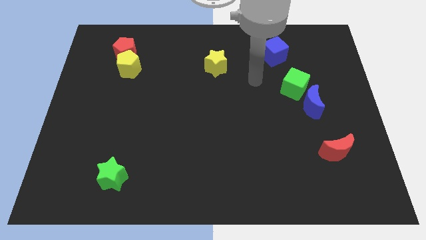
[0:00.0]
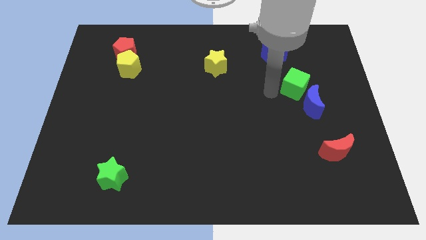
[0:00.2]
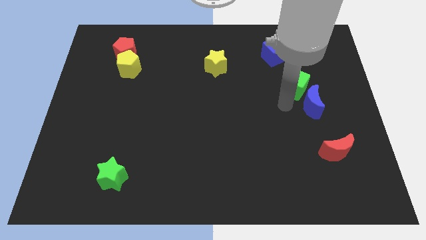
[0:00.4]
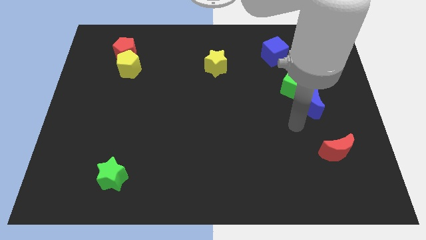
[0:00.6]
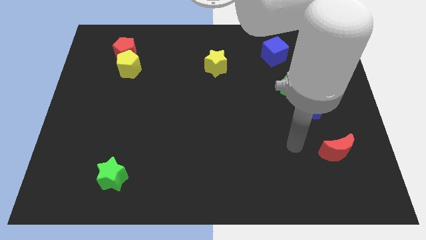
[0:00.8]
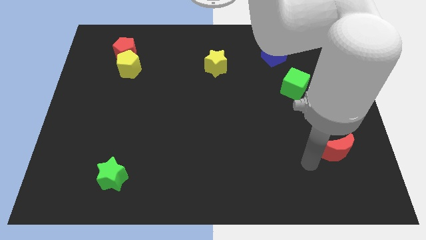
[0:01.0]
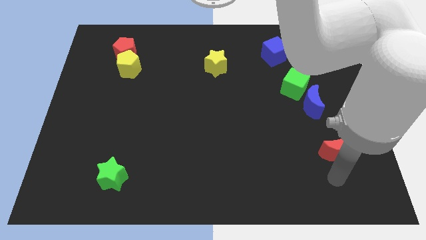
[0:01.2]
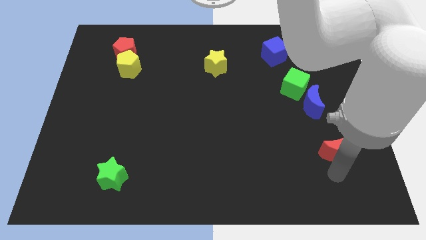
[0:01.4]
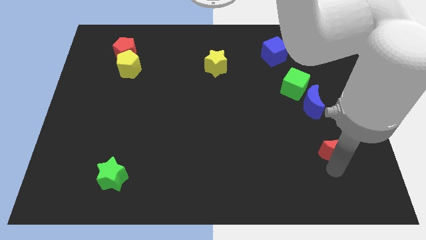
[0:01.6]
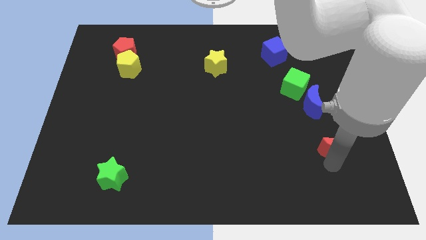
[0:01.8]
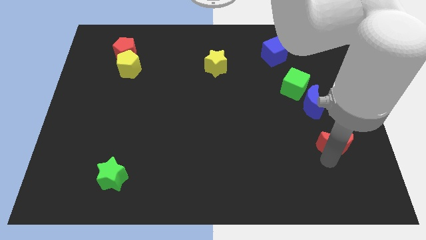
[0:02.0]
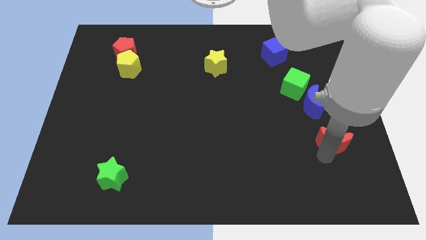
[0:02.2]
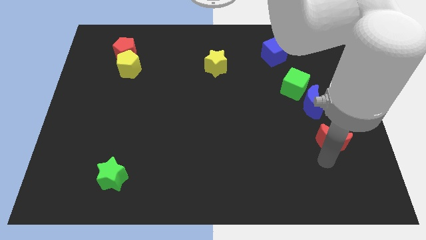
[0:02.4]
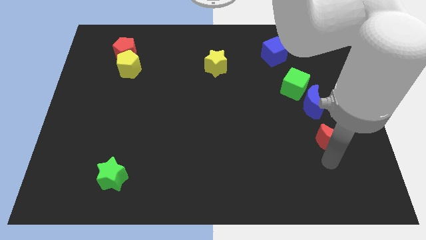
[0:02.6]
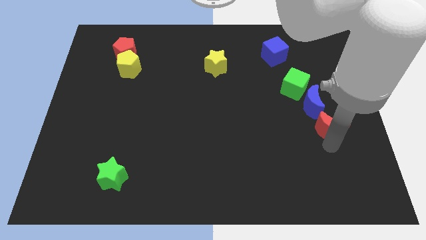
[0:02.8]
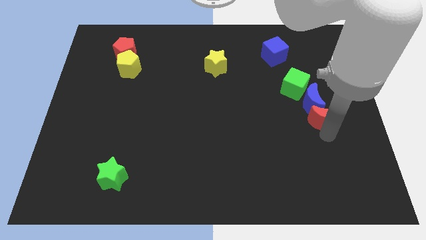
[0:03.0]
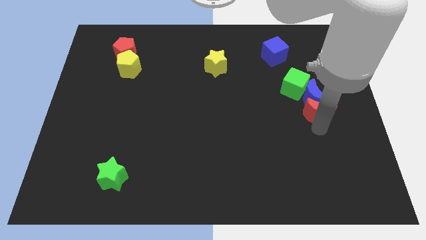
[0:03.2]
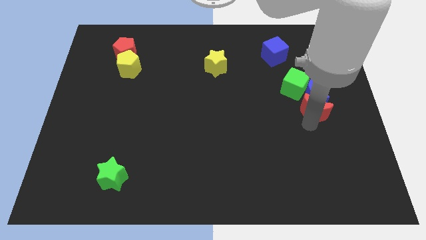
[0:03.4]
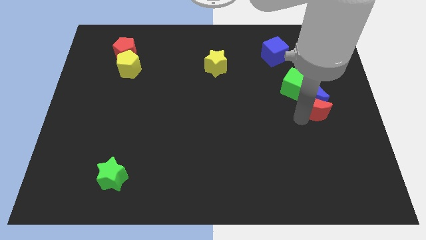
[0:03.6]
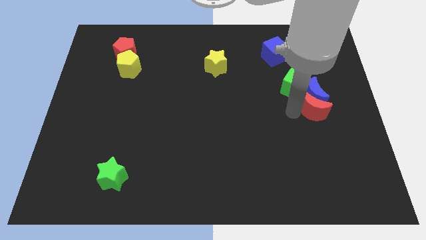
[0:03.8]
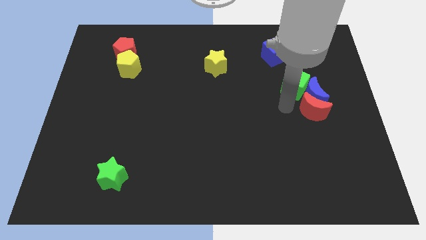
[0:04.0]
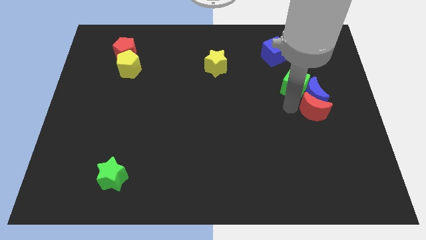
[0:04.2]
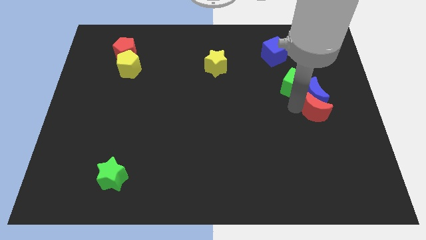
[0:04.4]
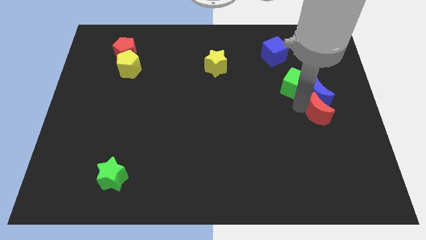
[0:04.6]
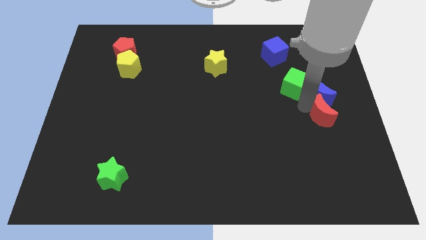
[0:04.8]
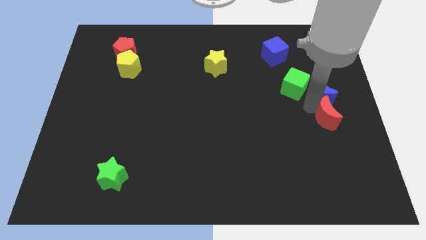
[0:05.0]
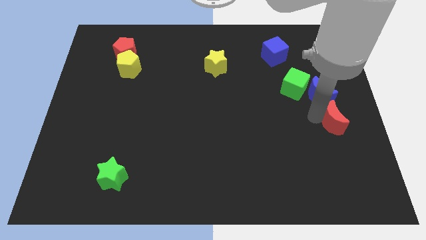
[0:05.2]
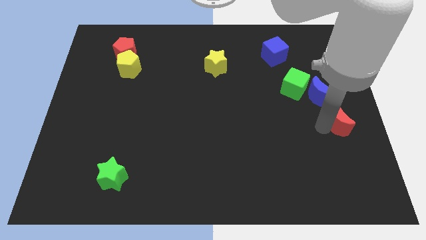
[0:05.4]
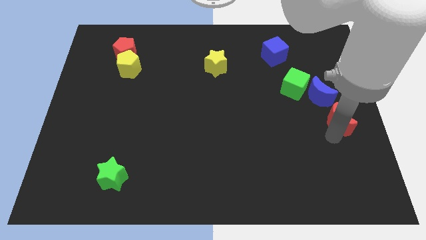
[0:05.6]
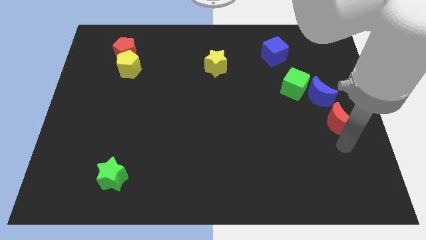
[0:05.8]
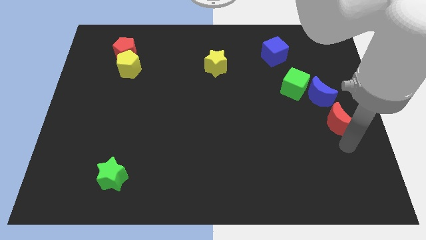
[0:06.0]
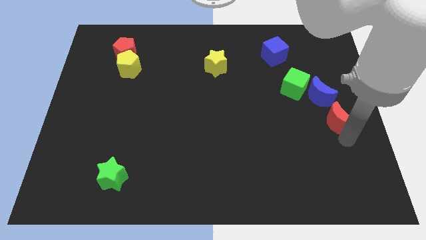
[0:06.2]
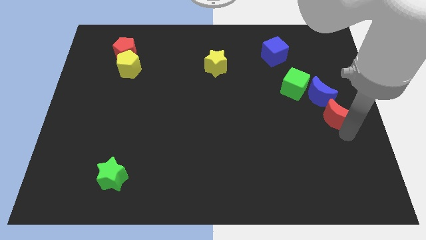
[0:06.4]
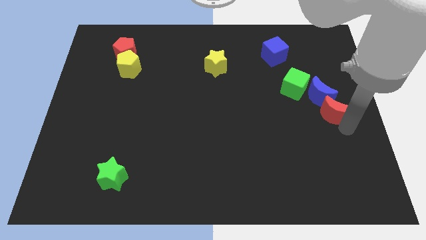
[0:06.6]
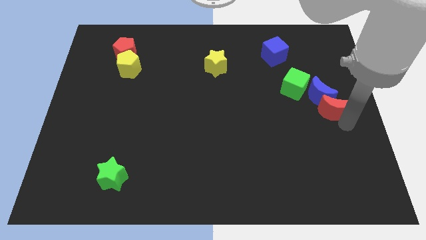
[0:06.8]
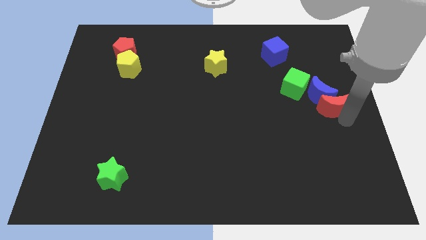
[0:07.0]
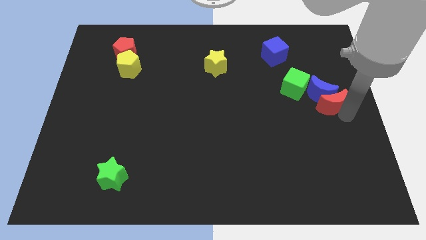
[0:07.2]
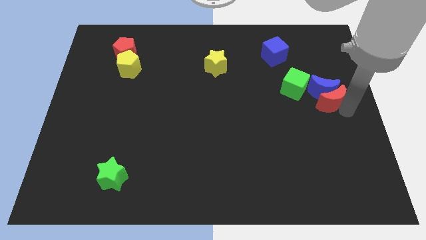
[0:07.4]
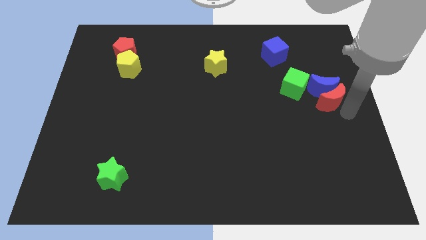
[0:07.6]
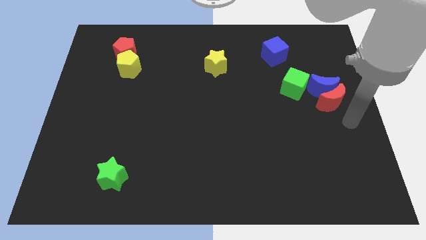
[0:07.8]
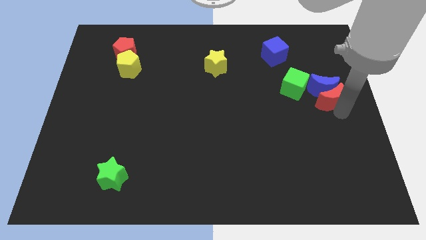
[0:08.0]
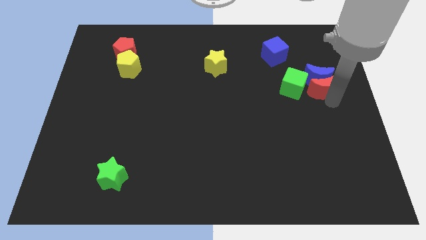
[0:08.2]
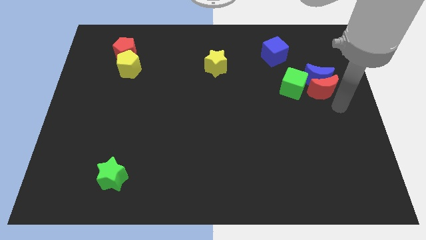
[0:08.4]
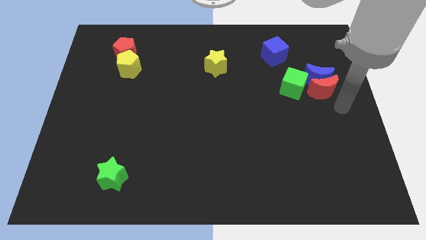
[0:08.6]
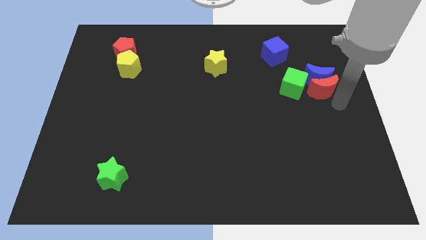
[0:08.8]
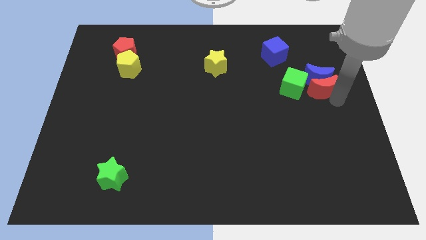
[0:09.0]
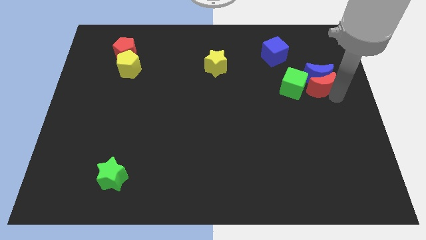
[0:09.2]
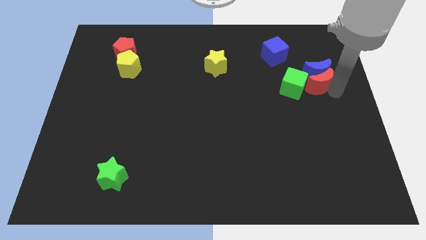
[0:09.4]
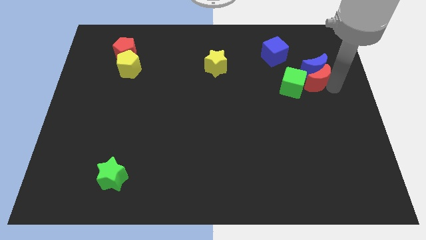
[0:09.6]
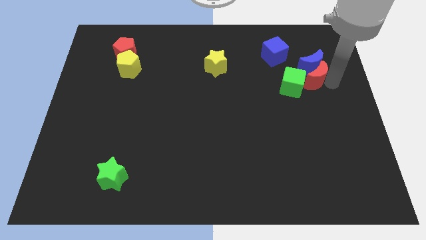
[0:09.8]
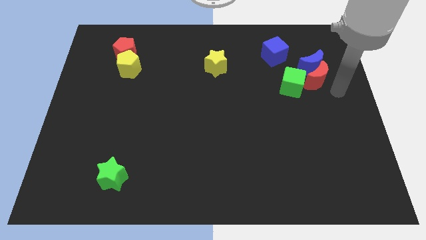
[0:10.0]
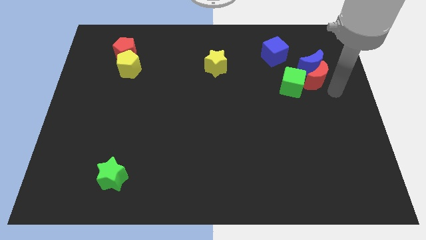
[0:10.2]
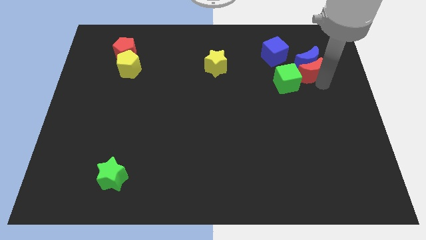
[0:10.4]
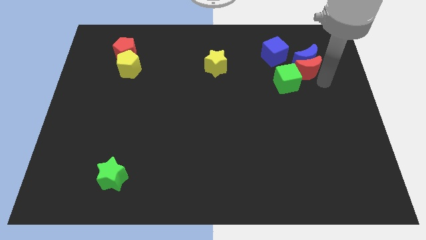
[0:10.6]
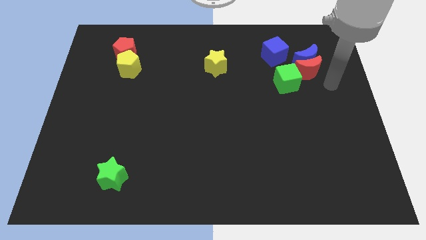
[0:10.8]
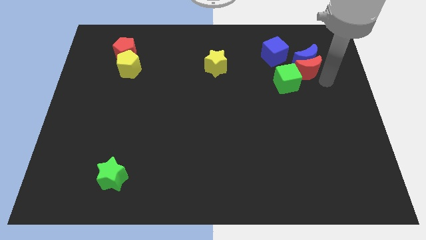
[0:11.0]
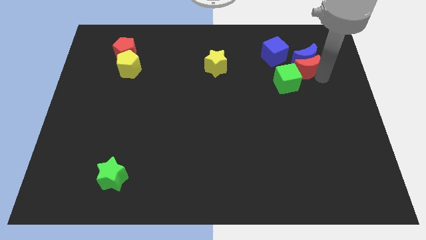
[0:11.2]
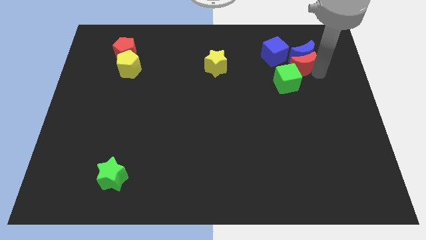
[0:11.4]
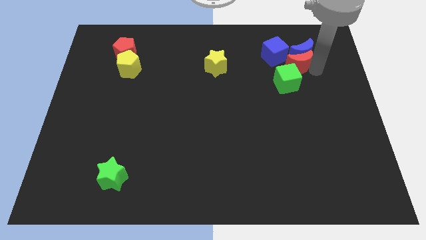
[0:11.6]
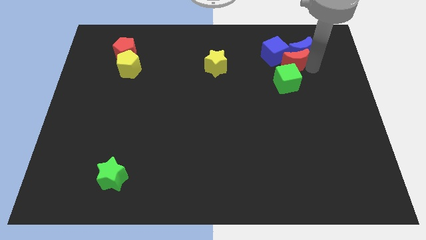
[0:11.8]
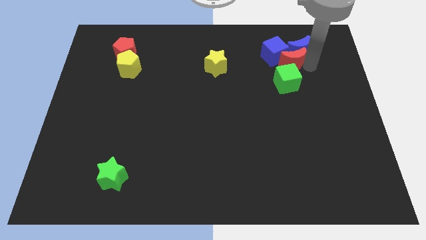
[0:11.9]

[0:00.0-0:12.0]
slide the red moon to the blue cube

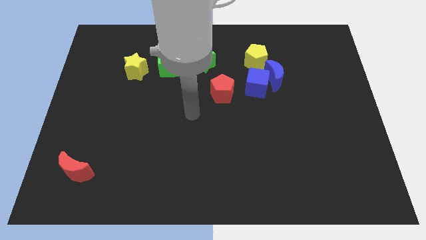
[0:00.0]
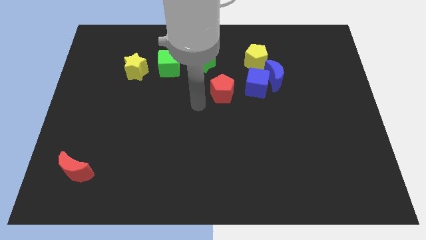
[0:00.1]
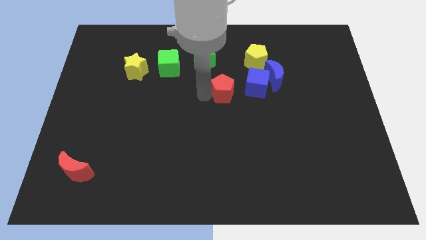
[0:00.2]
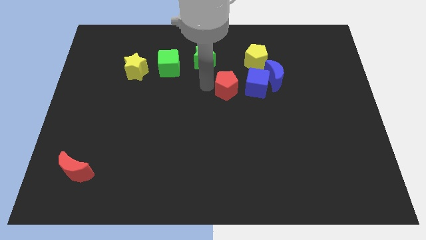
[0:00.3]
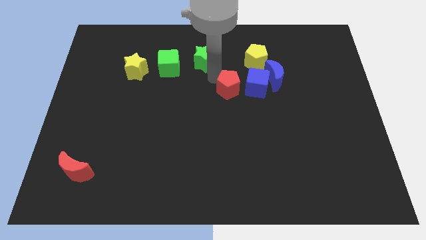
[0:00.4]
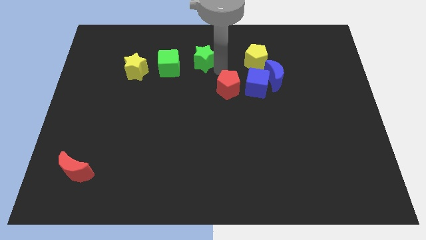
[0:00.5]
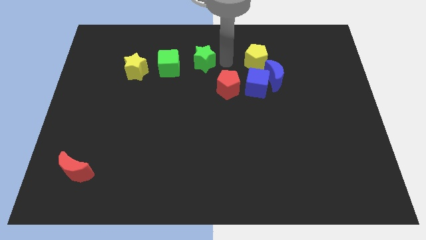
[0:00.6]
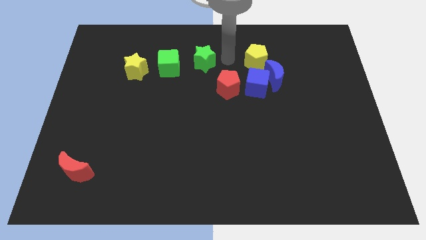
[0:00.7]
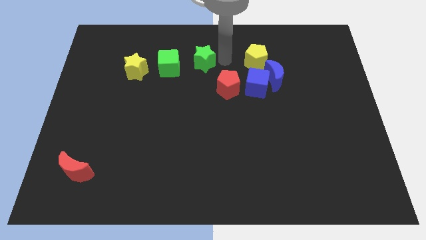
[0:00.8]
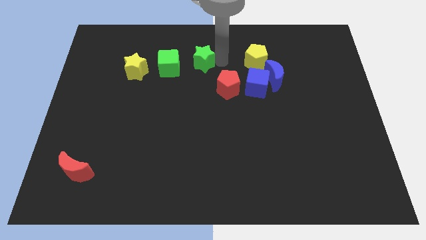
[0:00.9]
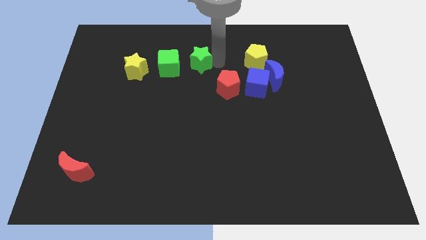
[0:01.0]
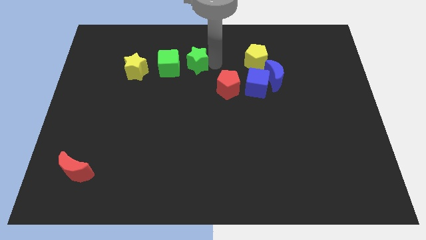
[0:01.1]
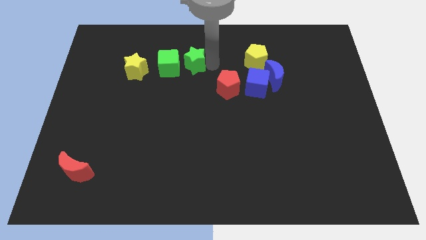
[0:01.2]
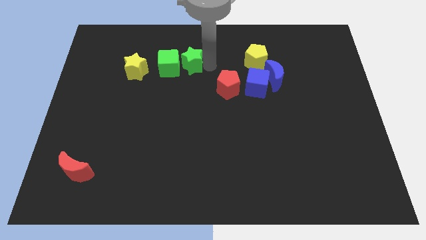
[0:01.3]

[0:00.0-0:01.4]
slide the green star towards the green cube
